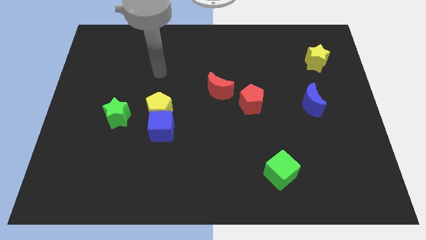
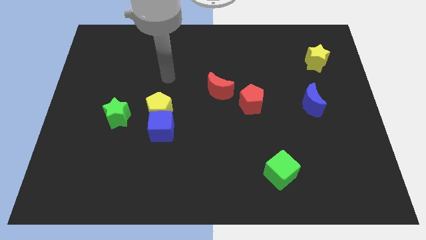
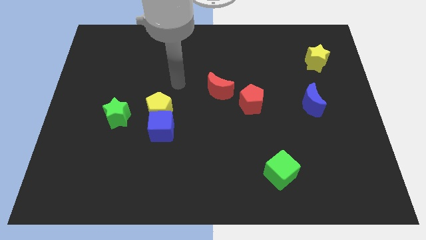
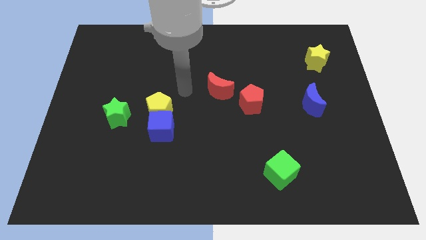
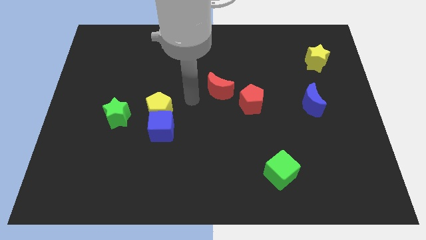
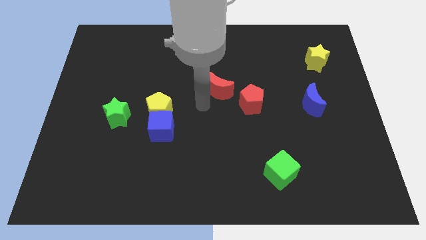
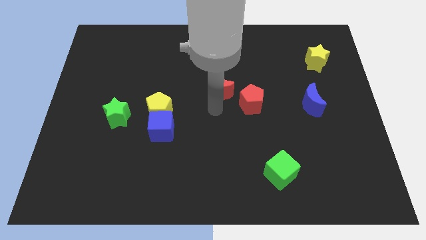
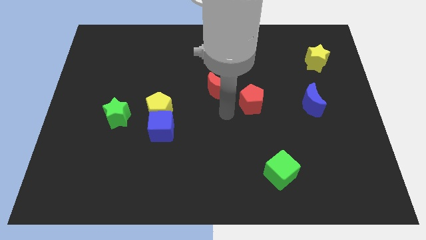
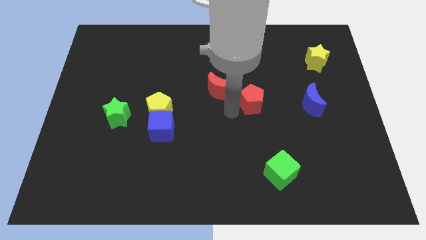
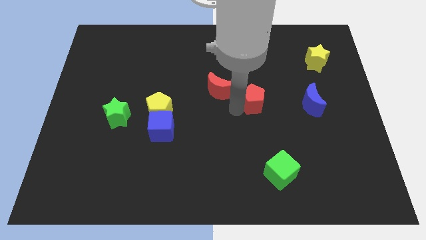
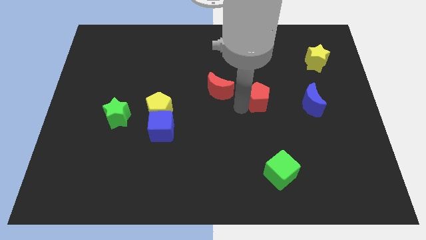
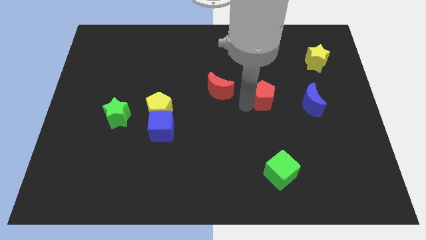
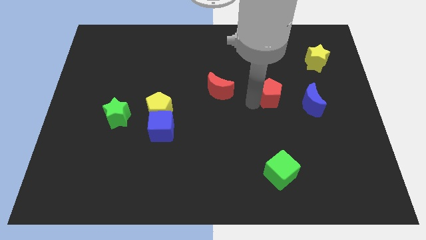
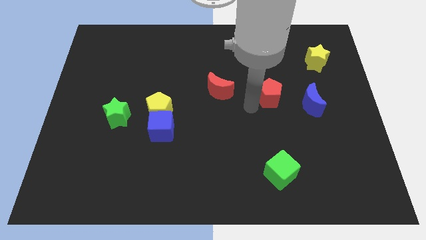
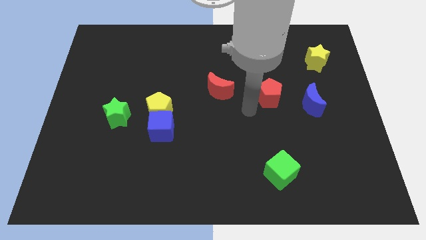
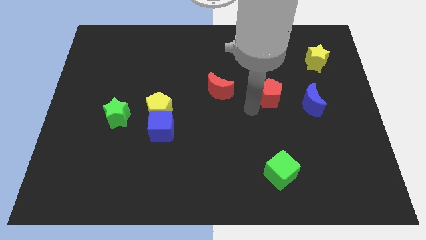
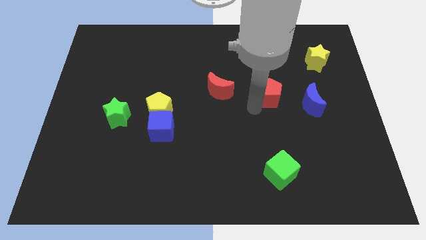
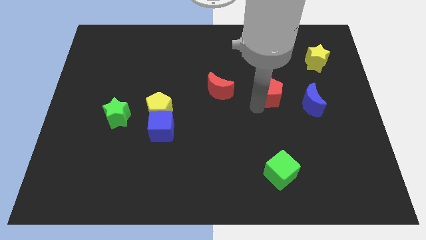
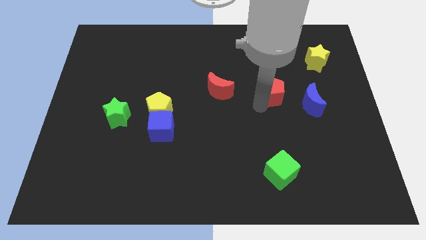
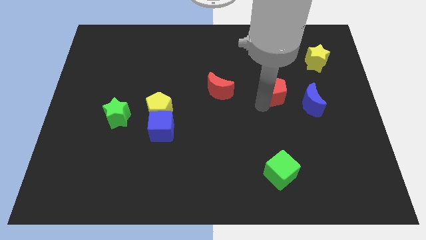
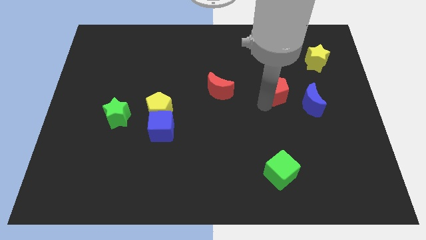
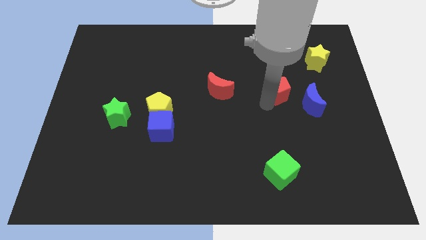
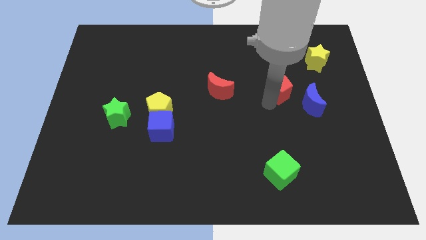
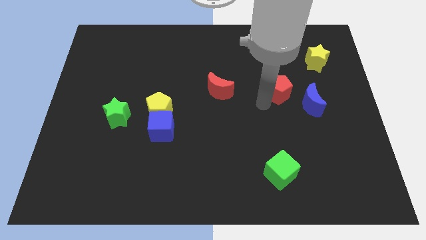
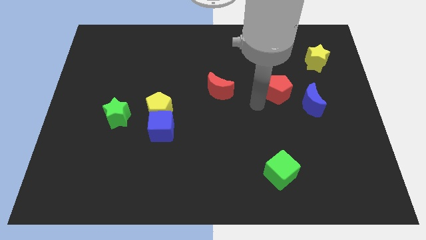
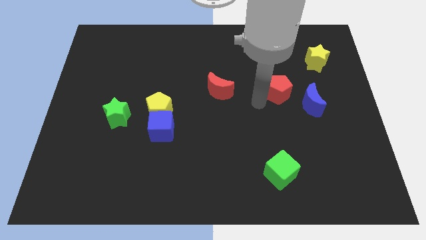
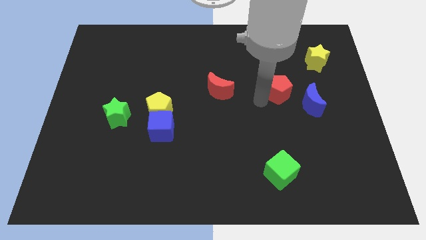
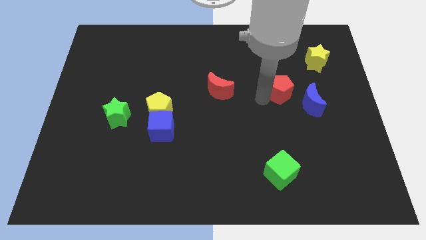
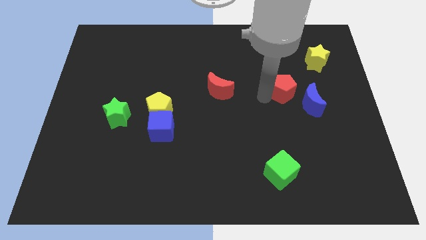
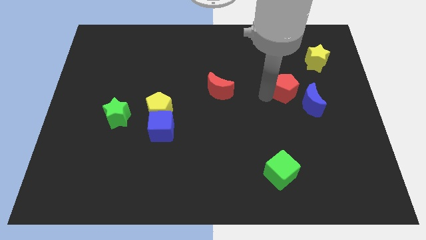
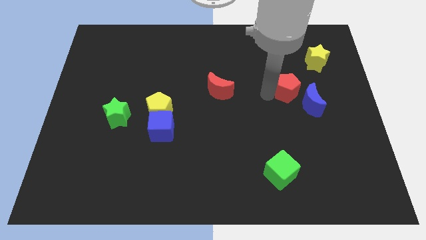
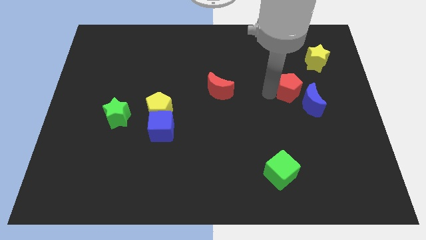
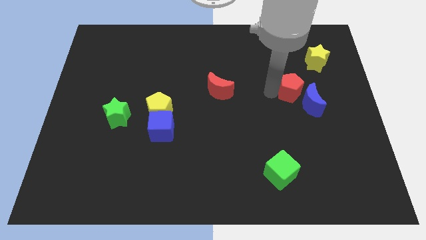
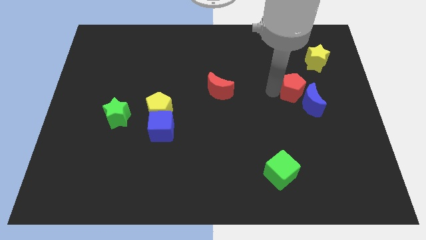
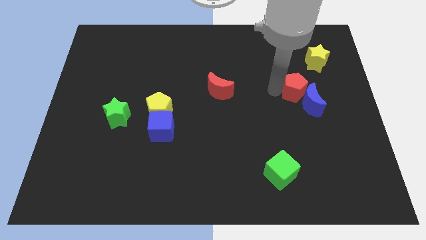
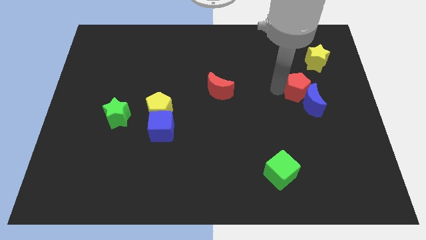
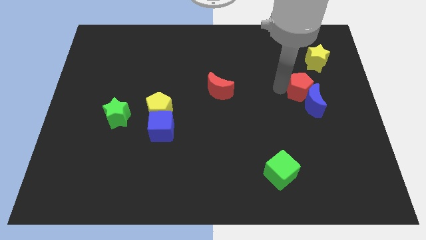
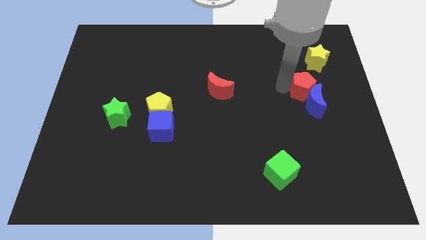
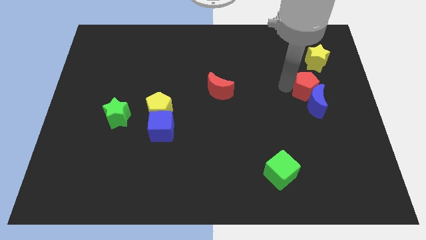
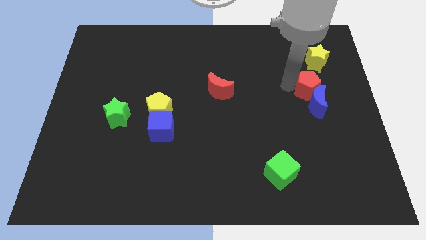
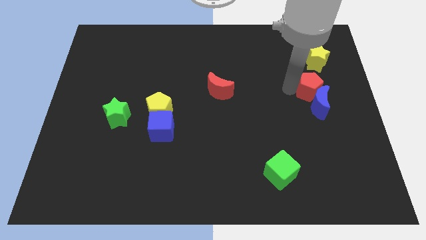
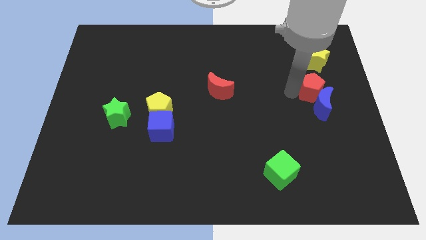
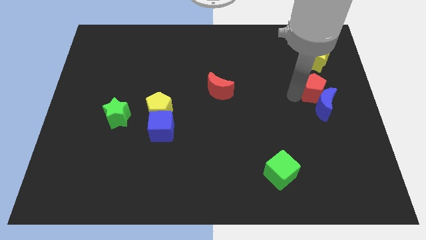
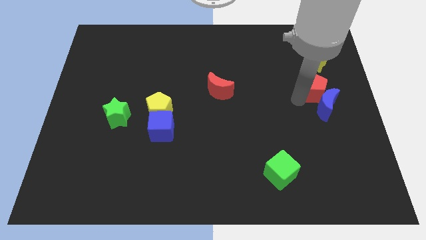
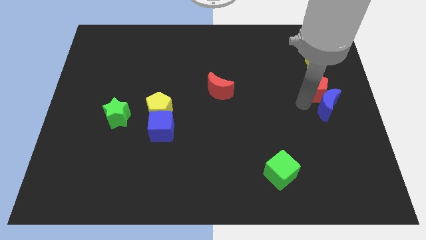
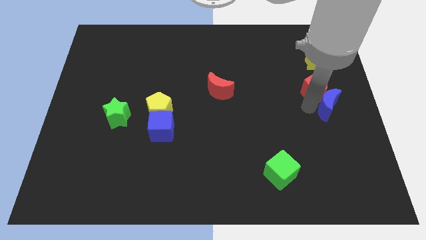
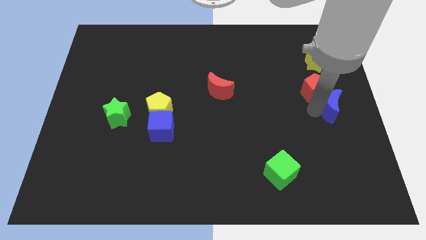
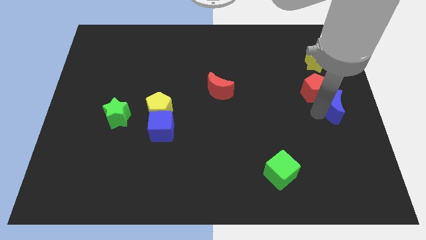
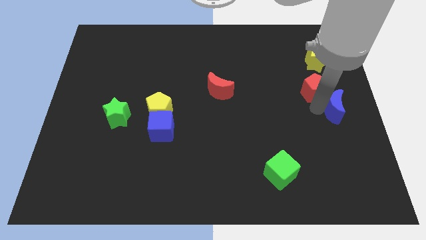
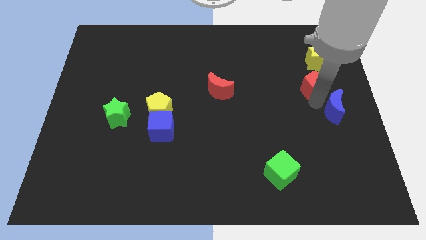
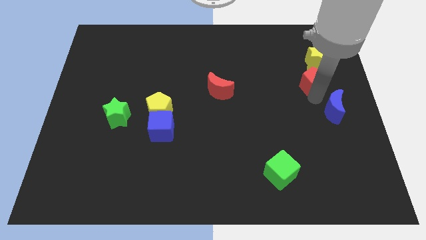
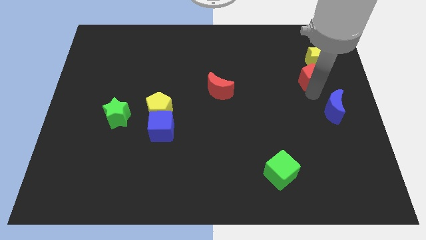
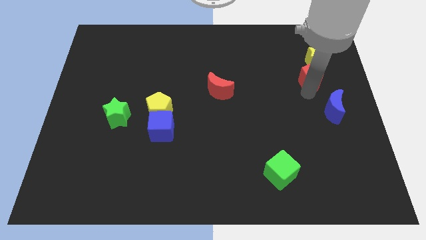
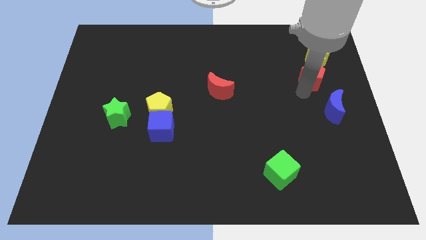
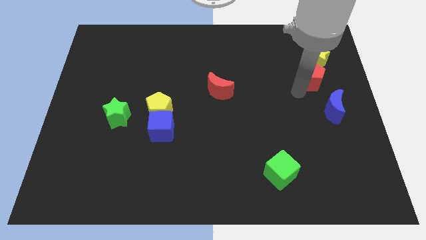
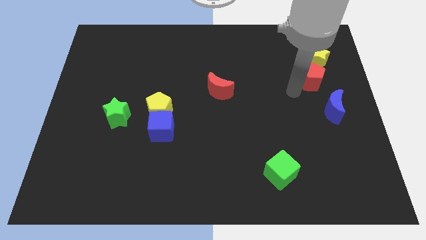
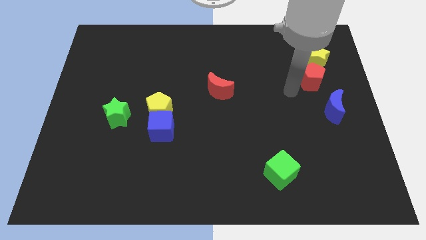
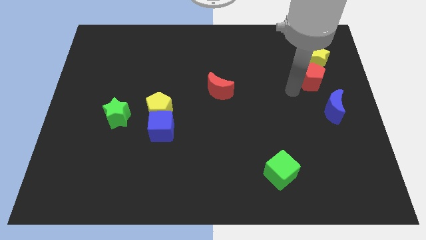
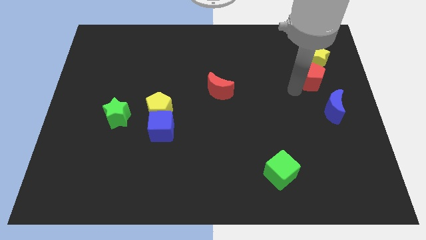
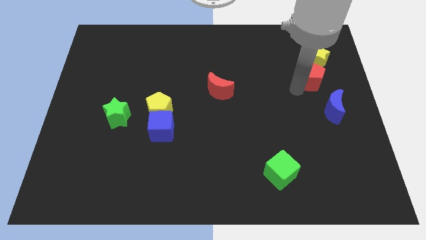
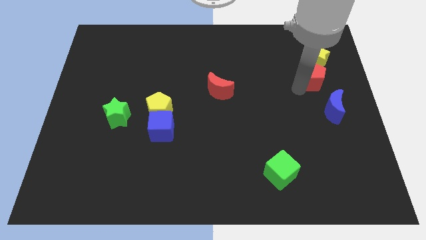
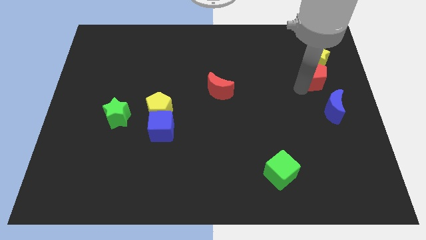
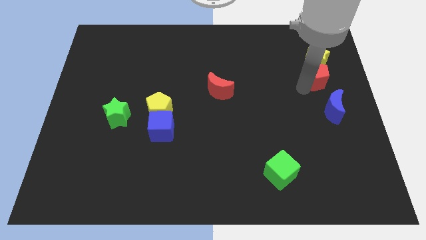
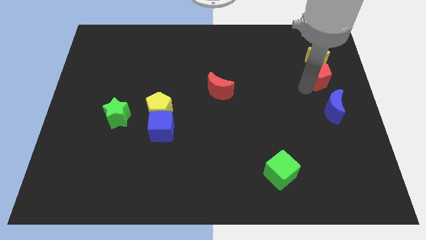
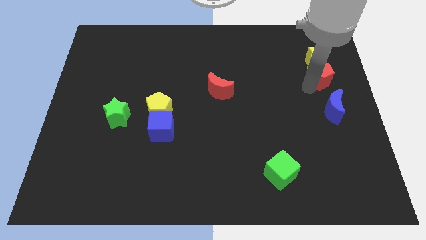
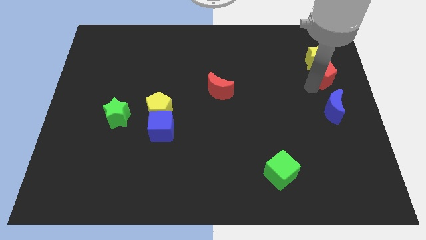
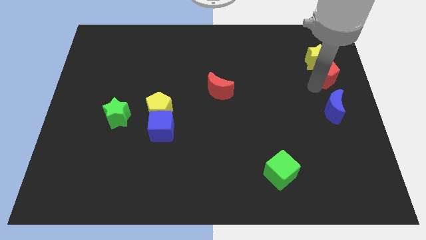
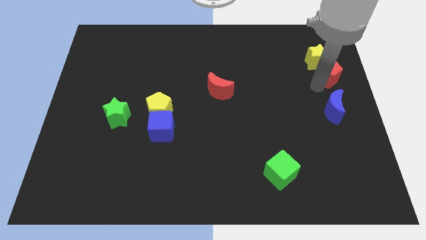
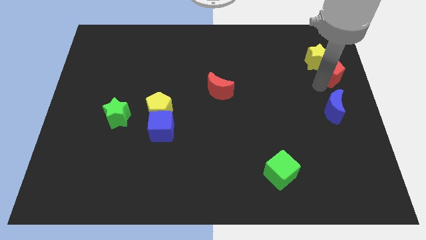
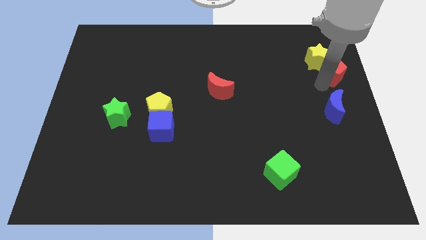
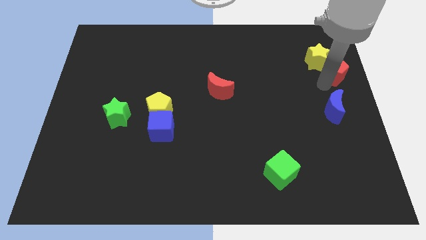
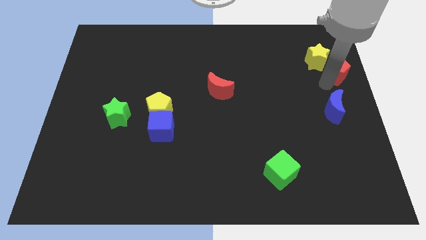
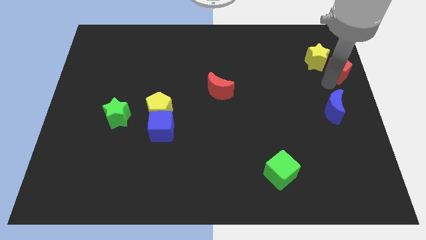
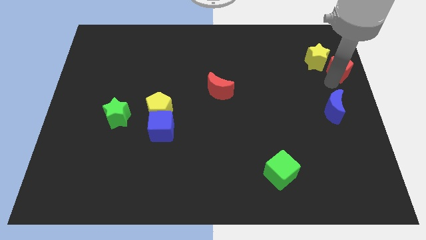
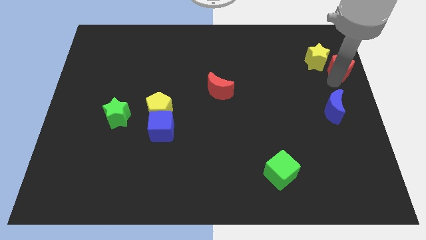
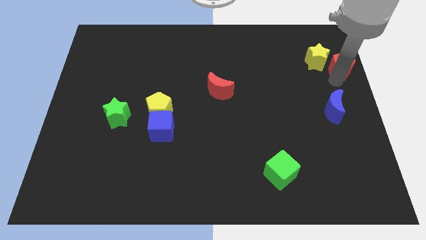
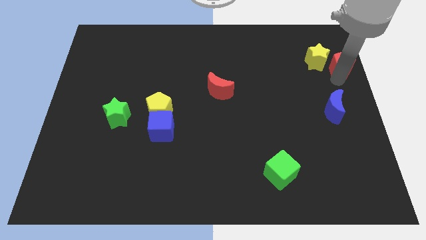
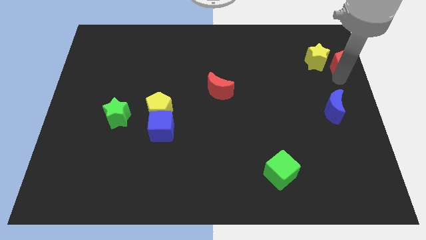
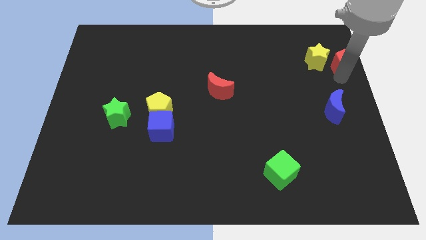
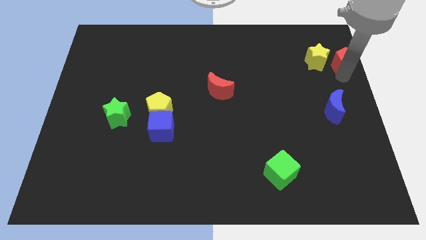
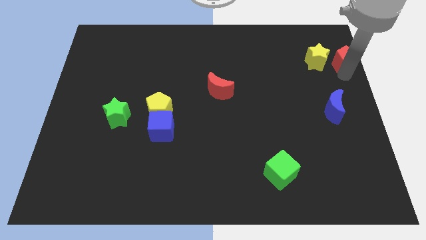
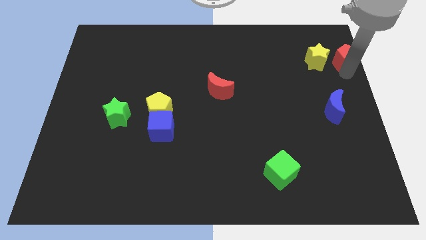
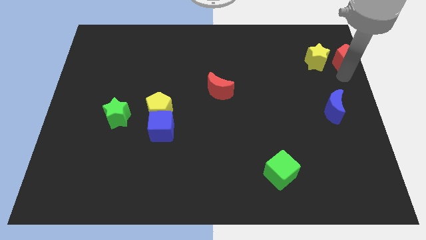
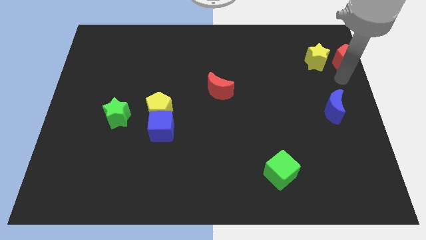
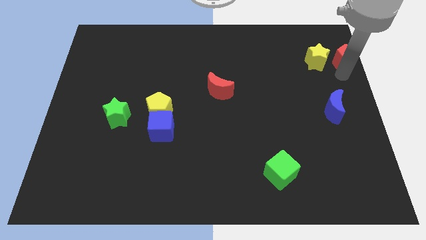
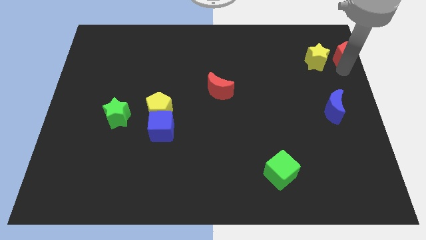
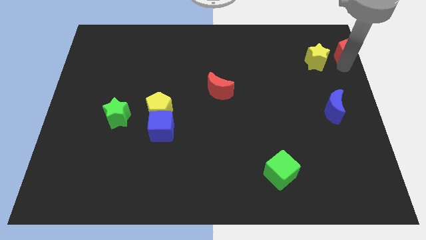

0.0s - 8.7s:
push the red pentagon to the upper right corner
